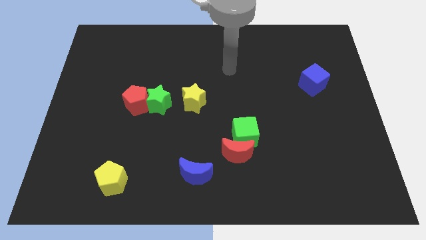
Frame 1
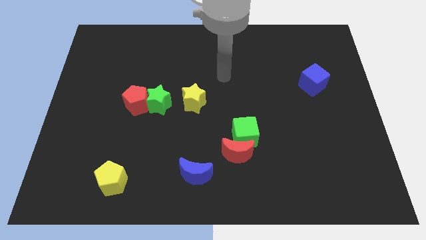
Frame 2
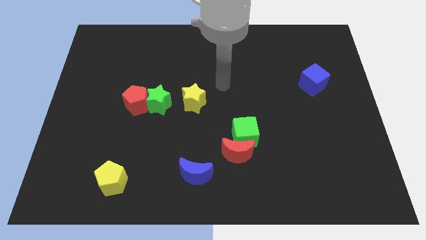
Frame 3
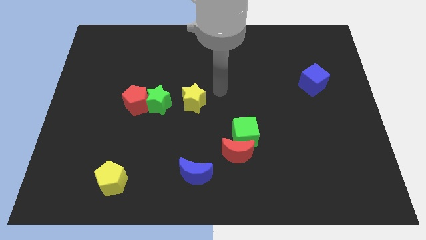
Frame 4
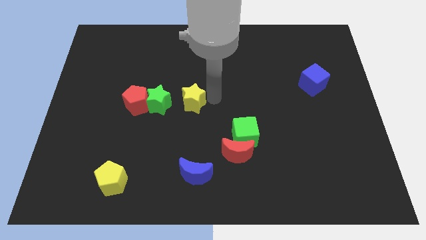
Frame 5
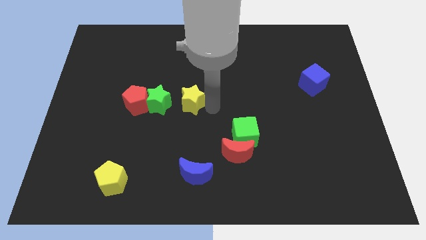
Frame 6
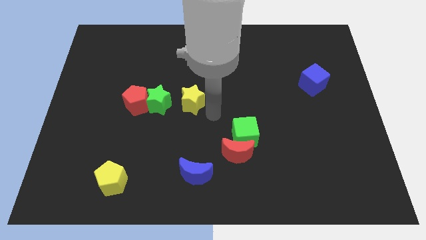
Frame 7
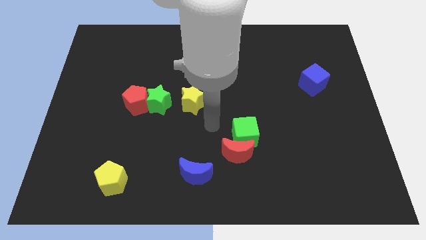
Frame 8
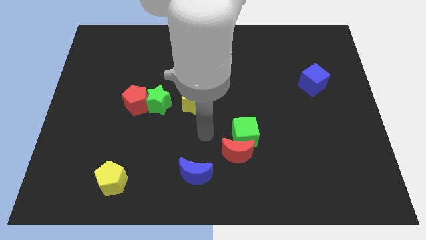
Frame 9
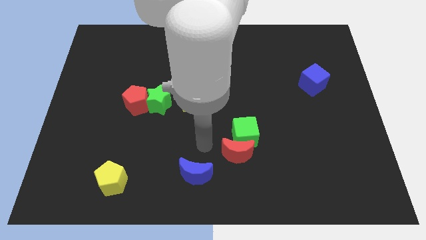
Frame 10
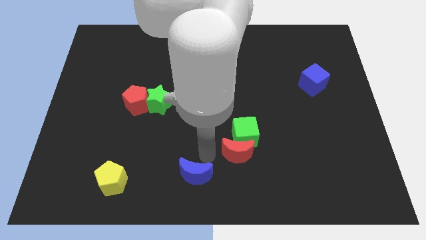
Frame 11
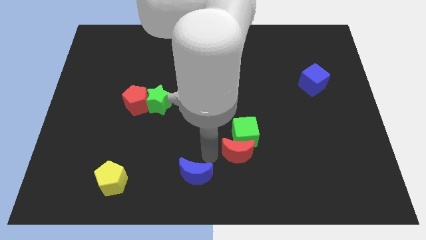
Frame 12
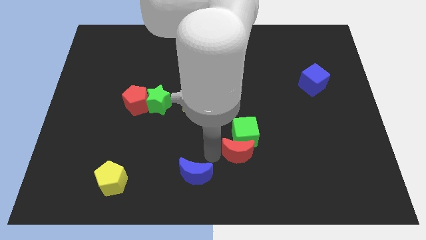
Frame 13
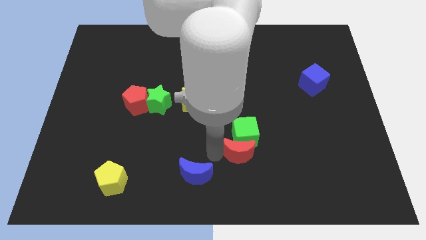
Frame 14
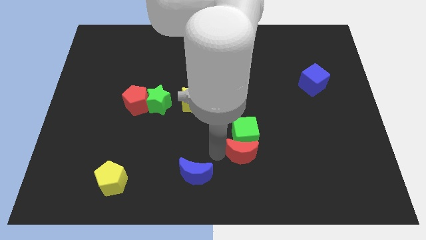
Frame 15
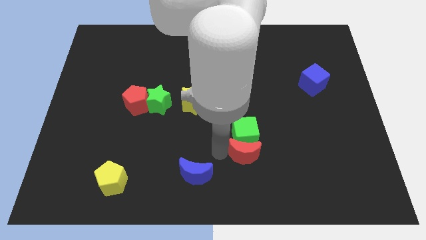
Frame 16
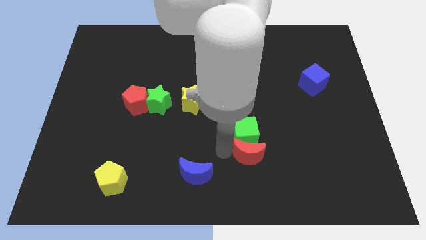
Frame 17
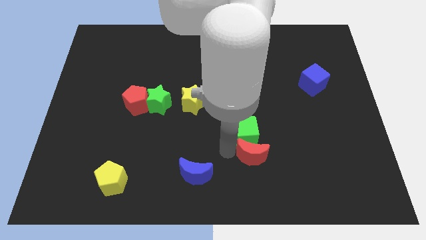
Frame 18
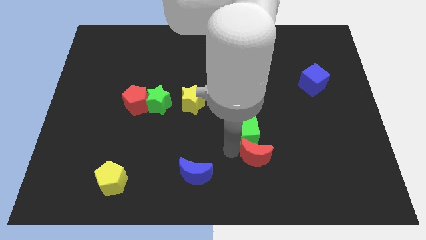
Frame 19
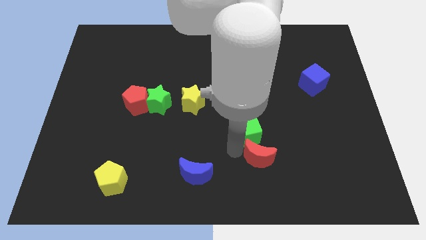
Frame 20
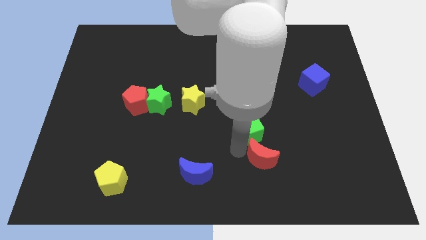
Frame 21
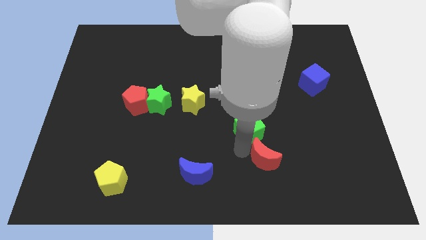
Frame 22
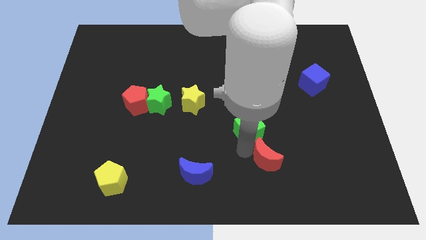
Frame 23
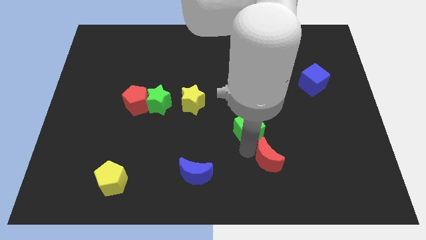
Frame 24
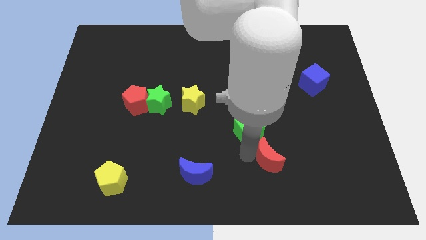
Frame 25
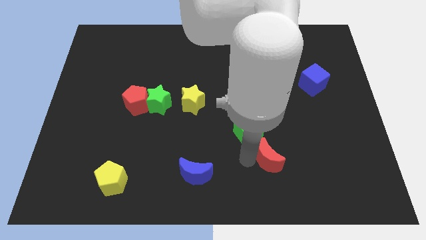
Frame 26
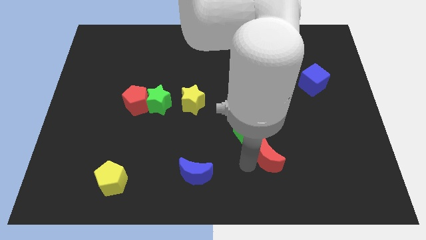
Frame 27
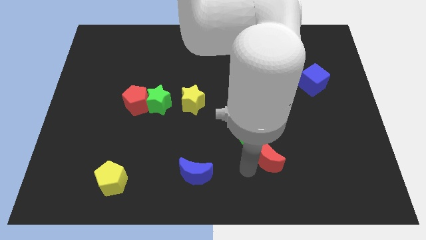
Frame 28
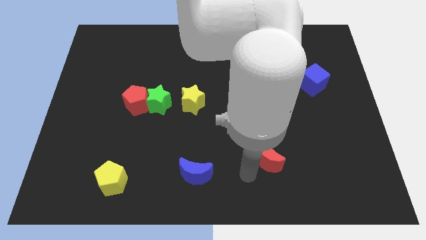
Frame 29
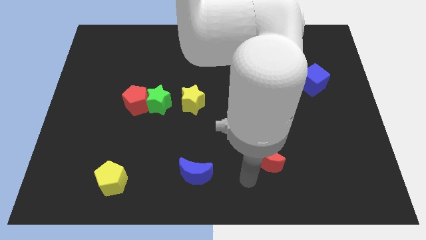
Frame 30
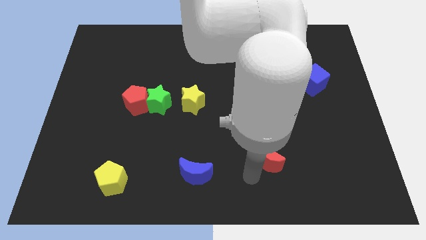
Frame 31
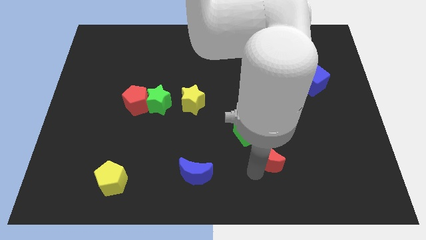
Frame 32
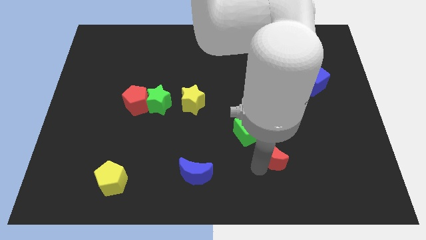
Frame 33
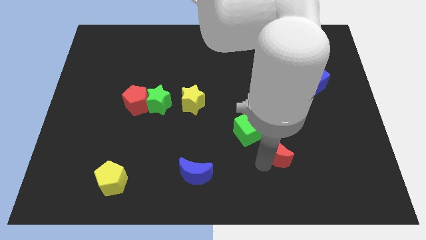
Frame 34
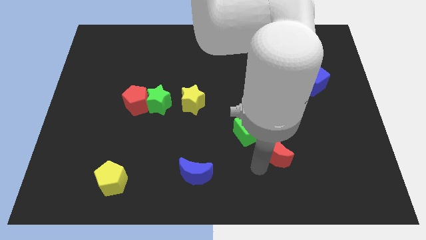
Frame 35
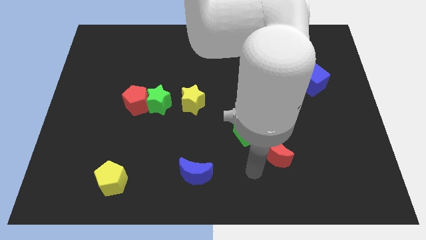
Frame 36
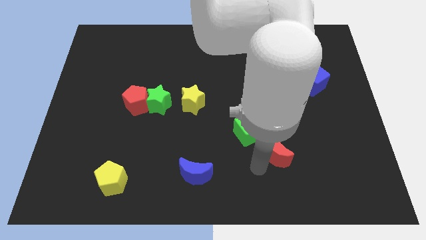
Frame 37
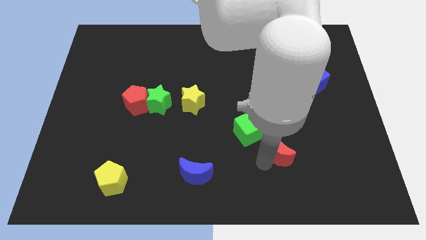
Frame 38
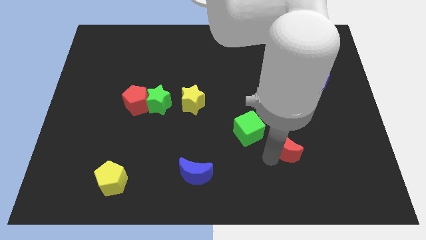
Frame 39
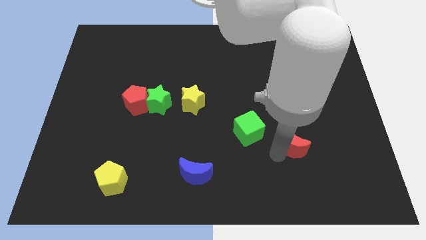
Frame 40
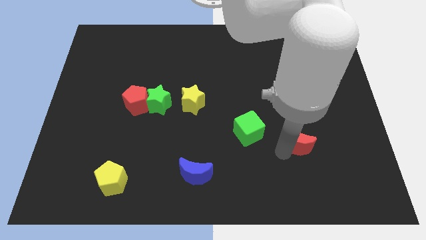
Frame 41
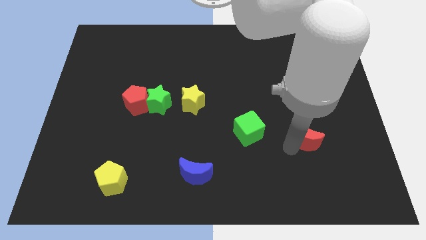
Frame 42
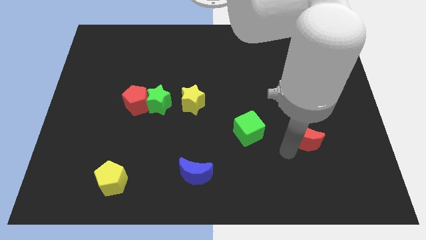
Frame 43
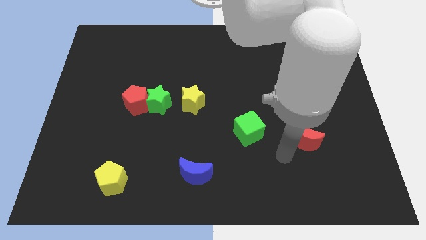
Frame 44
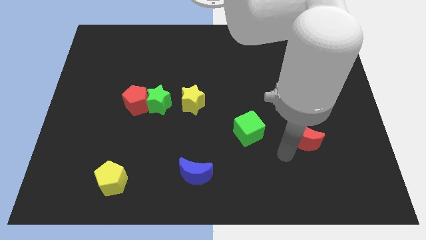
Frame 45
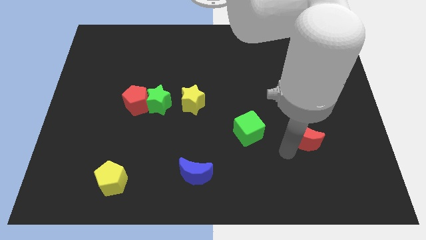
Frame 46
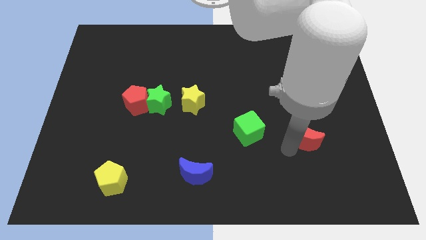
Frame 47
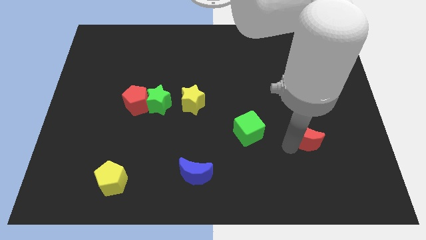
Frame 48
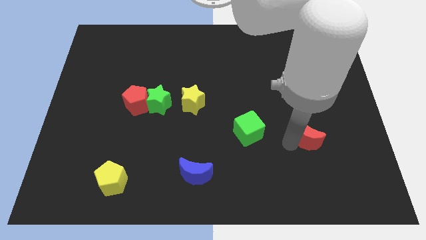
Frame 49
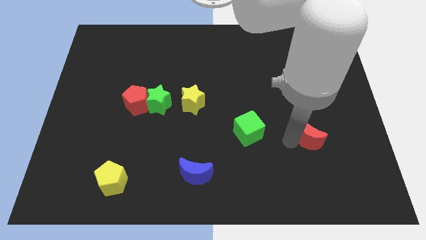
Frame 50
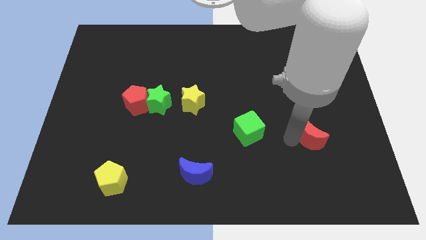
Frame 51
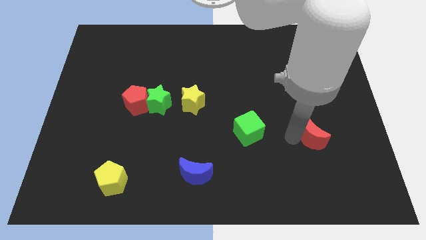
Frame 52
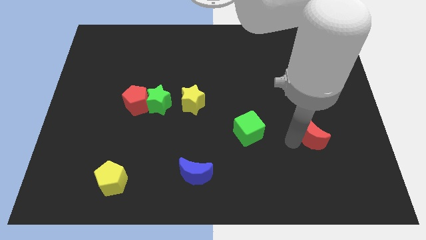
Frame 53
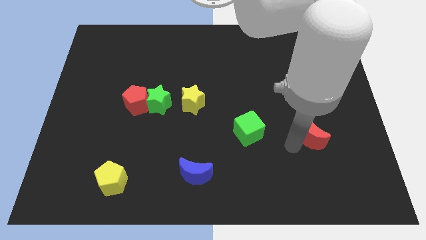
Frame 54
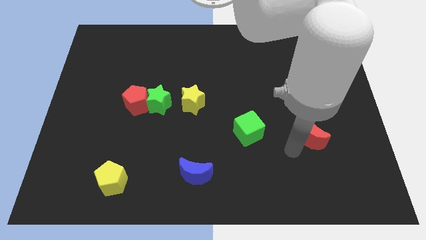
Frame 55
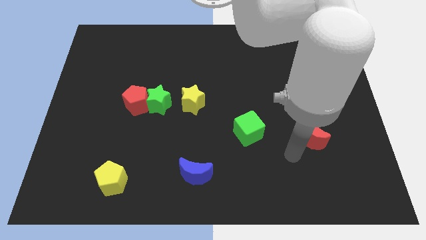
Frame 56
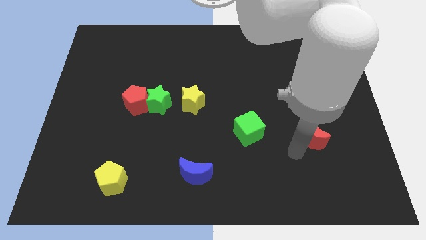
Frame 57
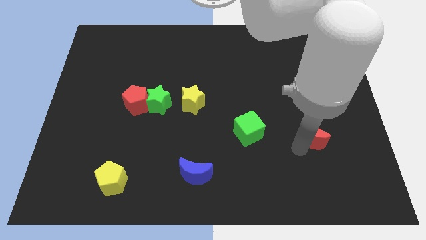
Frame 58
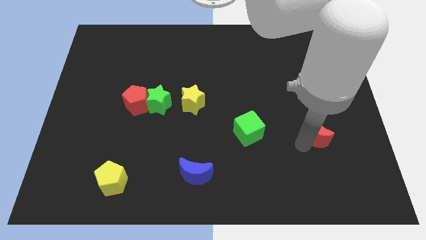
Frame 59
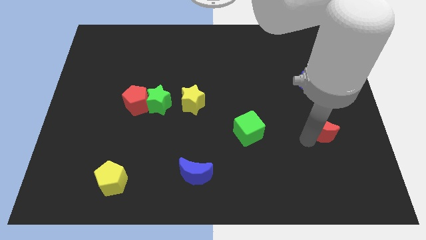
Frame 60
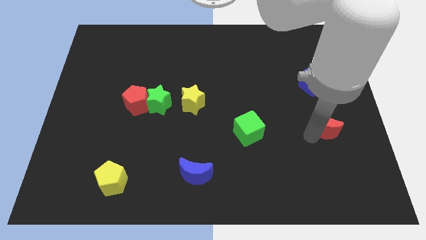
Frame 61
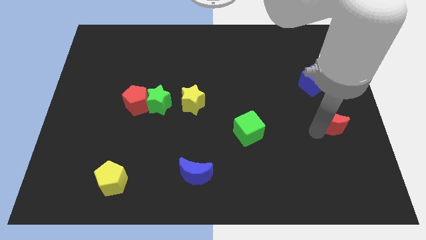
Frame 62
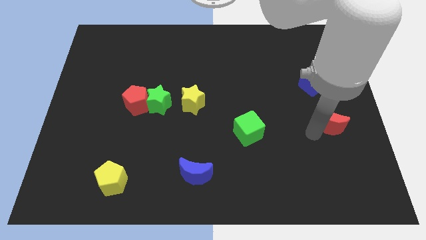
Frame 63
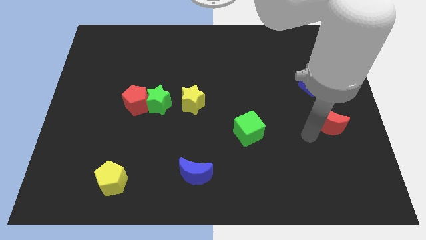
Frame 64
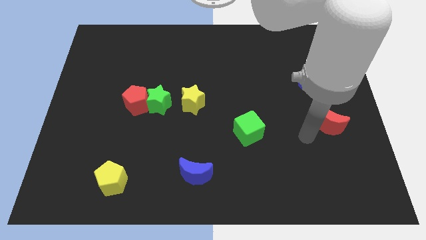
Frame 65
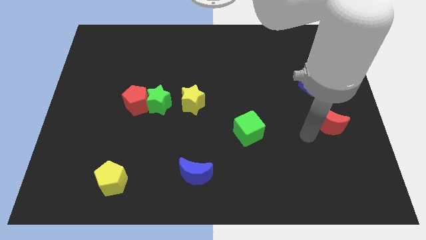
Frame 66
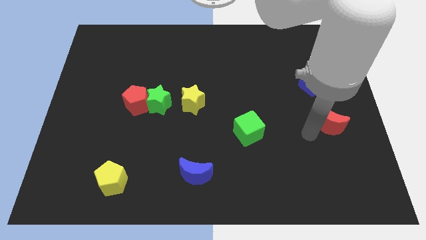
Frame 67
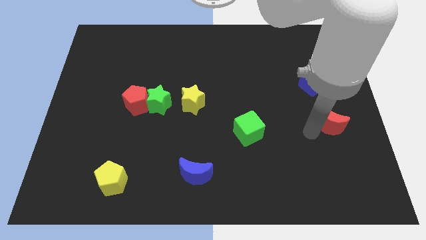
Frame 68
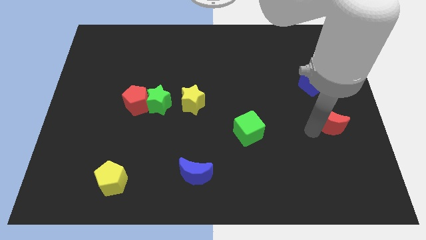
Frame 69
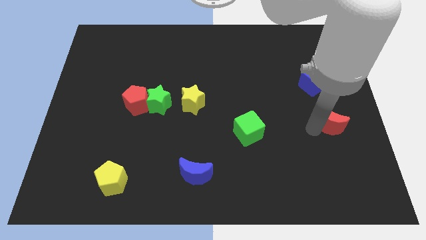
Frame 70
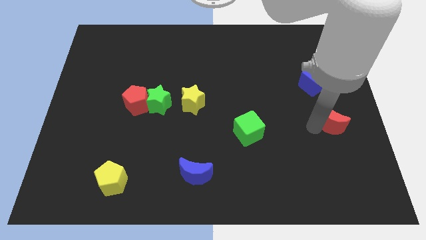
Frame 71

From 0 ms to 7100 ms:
move the red moon to the right side

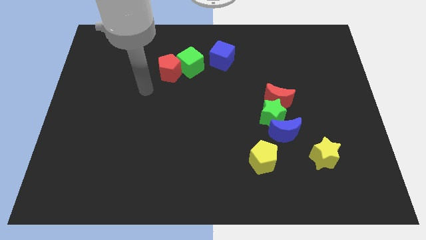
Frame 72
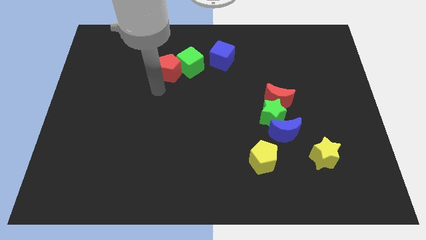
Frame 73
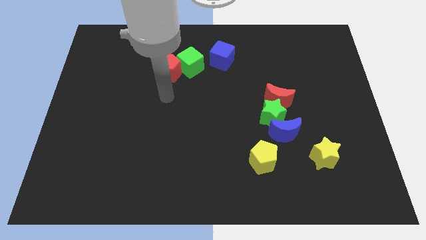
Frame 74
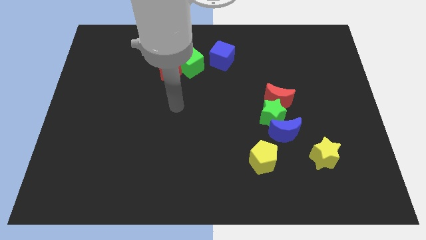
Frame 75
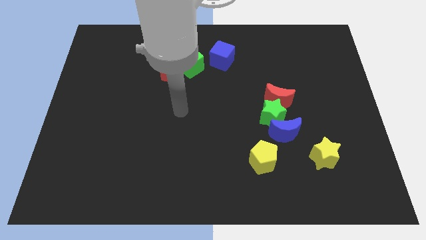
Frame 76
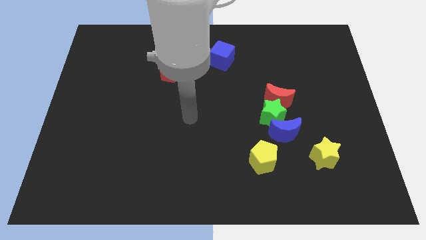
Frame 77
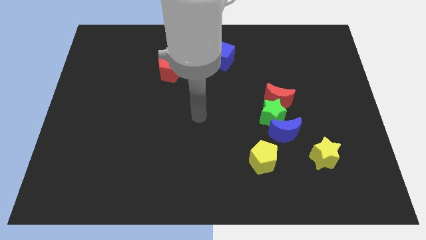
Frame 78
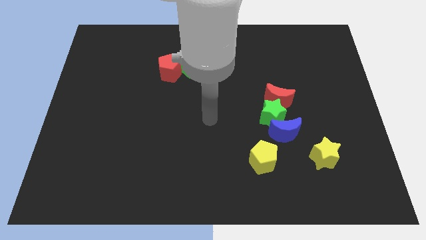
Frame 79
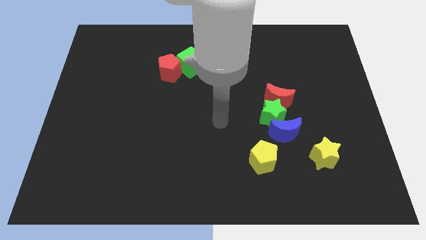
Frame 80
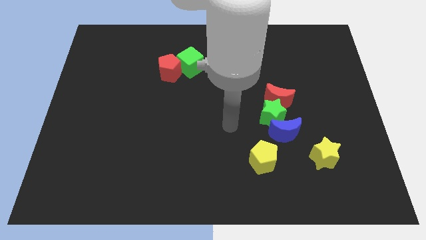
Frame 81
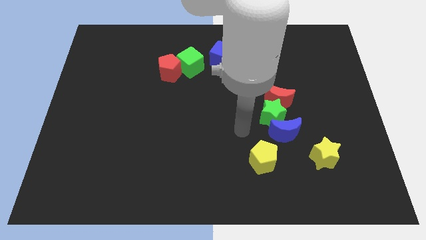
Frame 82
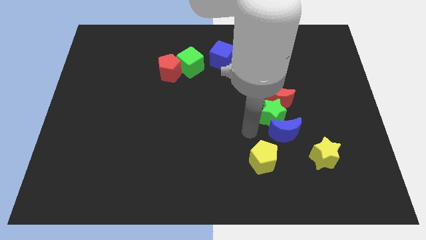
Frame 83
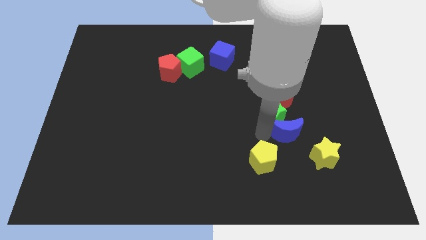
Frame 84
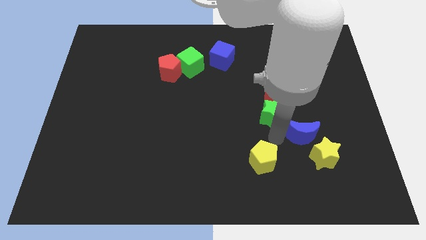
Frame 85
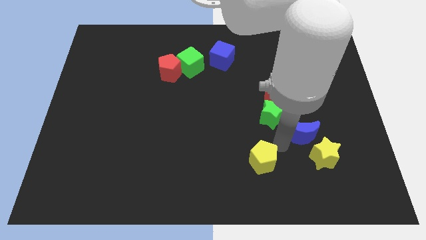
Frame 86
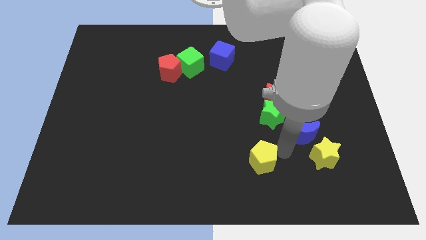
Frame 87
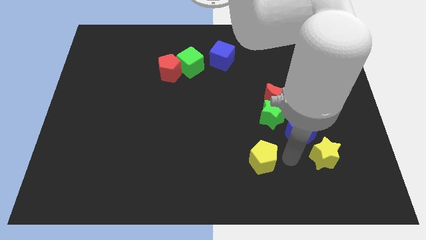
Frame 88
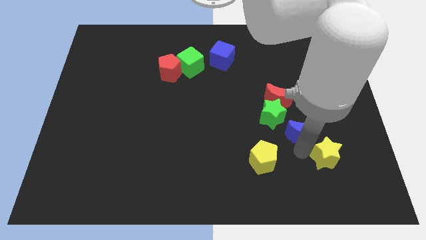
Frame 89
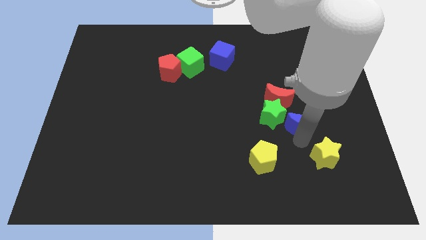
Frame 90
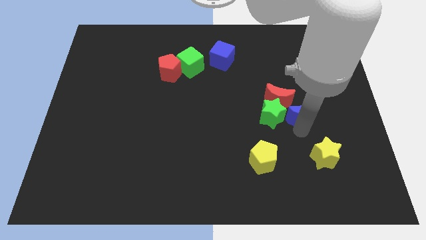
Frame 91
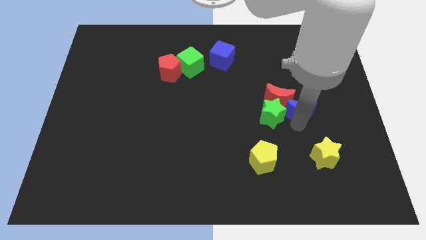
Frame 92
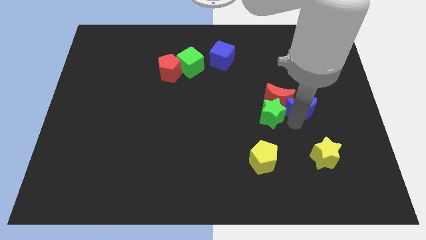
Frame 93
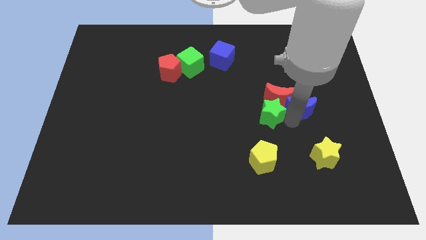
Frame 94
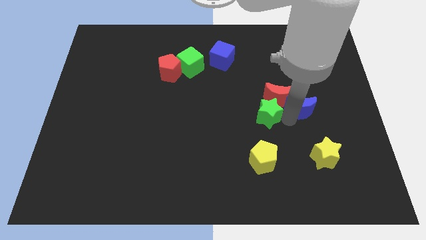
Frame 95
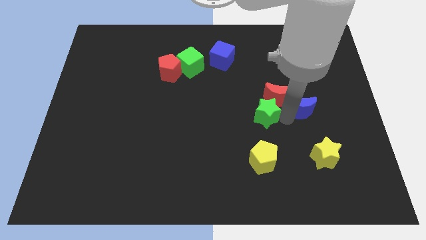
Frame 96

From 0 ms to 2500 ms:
slide the green star to the center of the board
